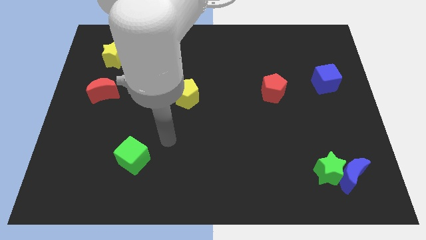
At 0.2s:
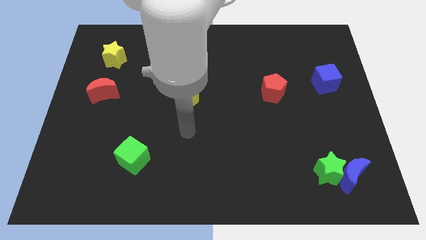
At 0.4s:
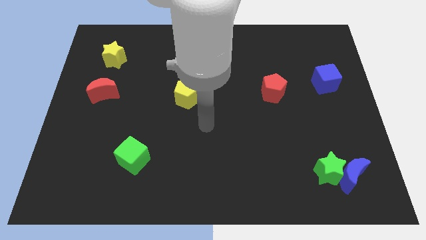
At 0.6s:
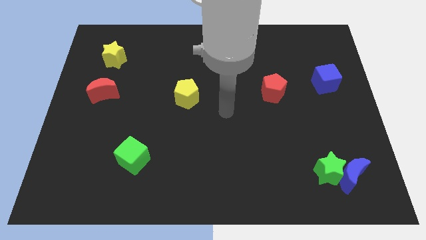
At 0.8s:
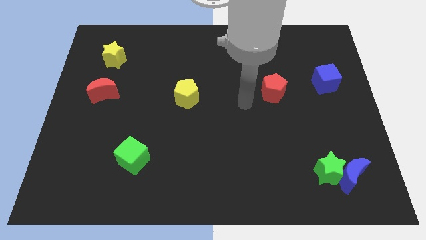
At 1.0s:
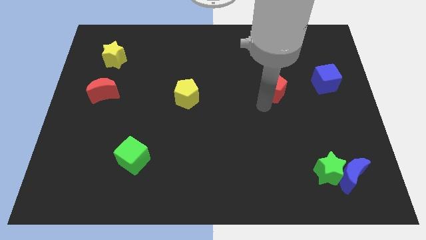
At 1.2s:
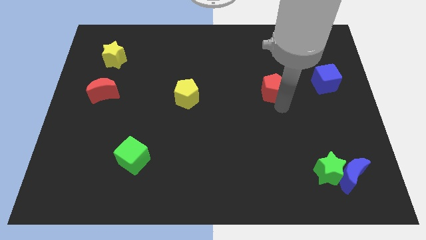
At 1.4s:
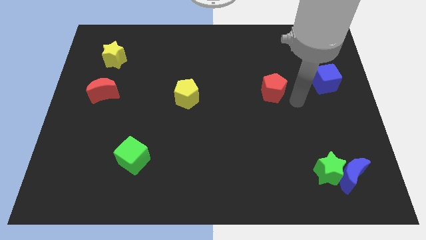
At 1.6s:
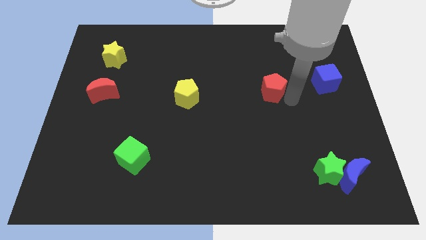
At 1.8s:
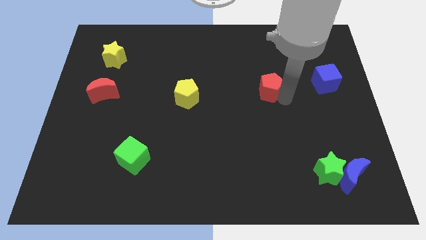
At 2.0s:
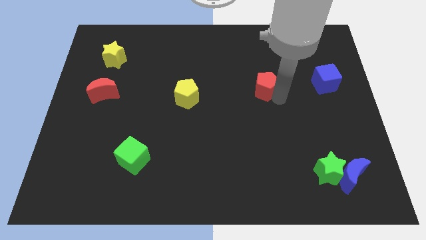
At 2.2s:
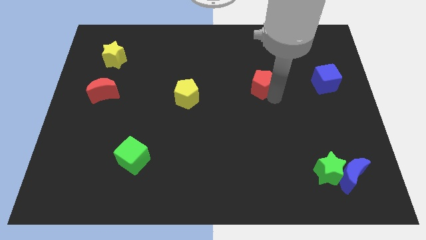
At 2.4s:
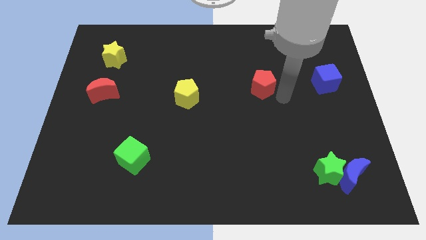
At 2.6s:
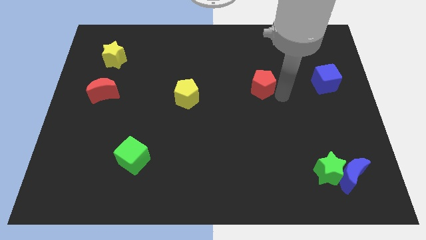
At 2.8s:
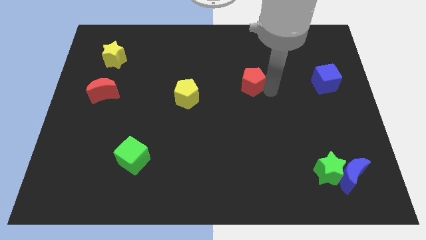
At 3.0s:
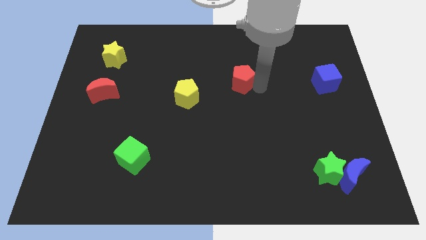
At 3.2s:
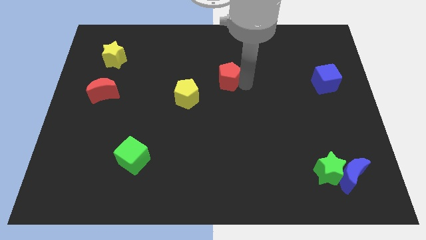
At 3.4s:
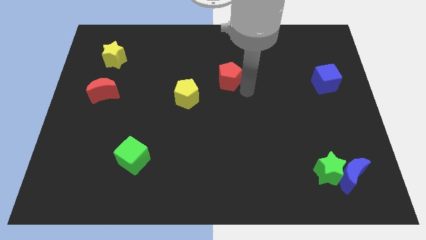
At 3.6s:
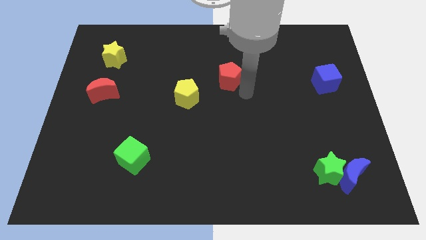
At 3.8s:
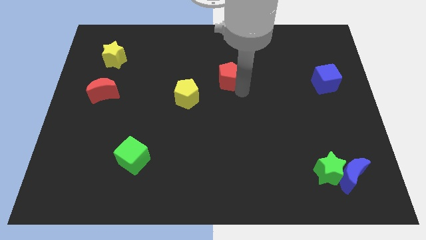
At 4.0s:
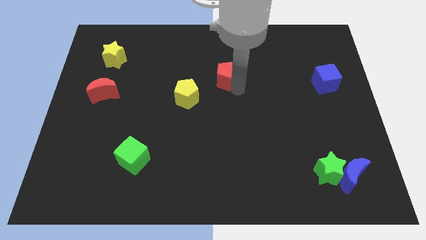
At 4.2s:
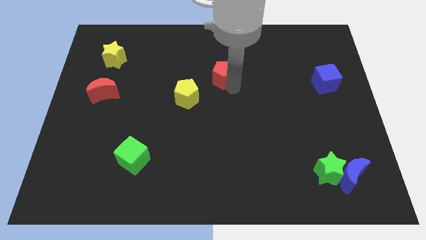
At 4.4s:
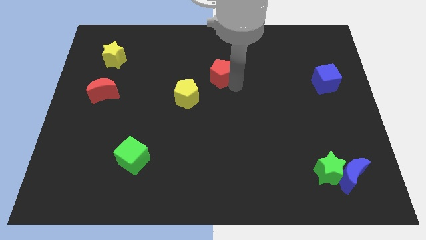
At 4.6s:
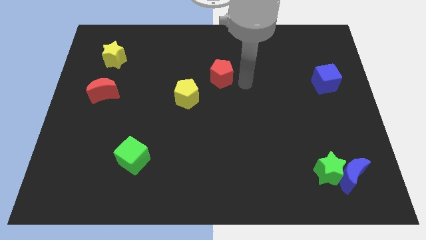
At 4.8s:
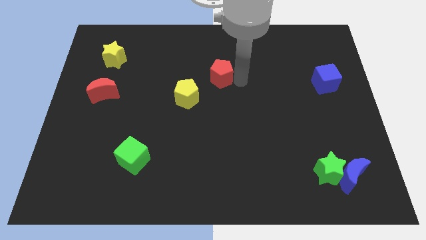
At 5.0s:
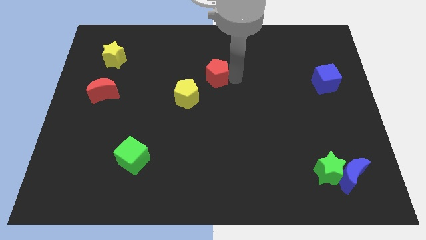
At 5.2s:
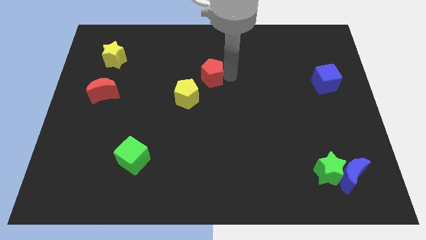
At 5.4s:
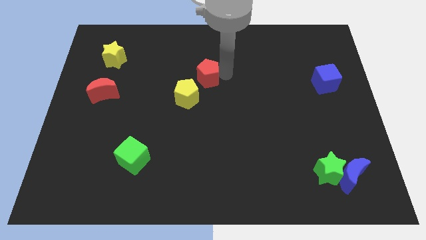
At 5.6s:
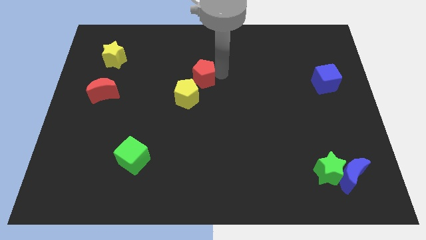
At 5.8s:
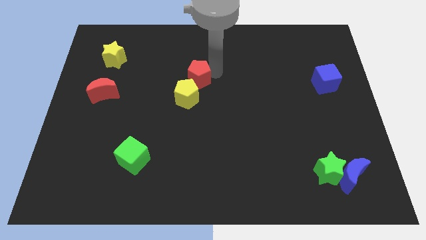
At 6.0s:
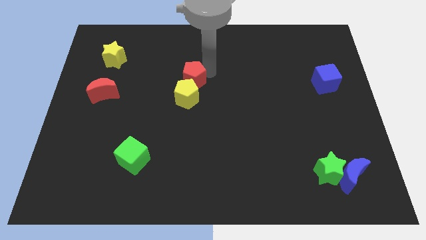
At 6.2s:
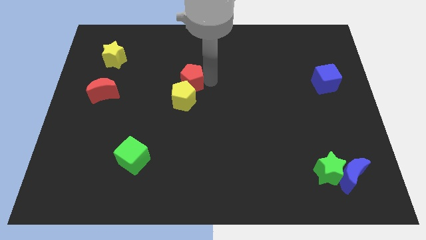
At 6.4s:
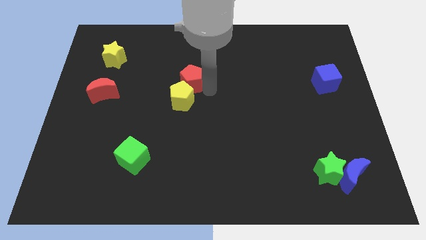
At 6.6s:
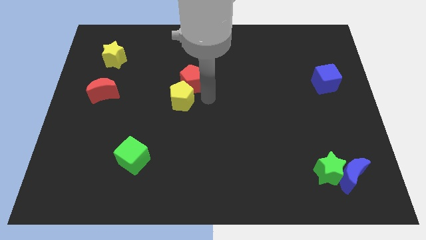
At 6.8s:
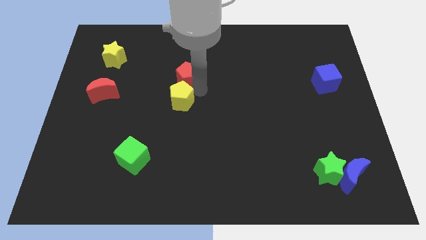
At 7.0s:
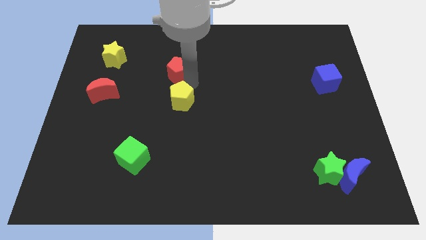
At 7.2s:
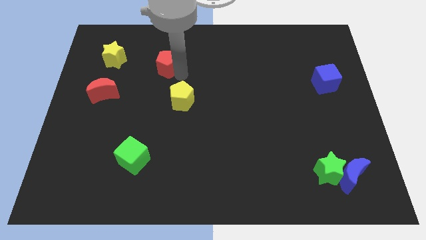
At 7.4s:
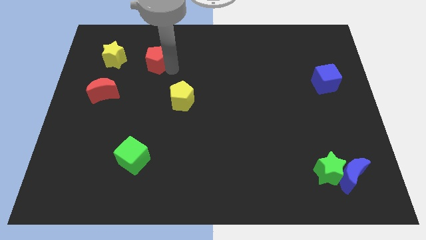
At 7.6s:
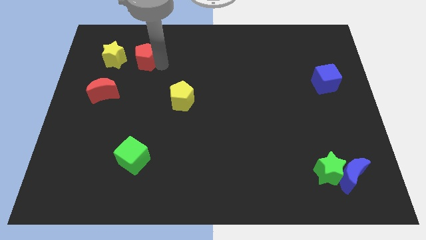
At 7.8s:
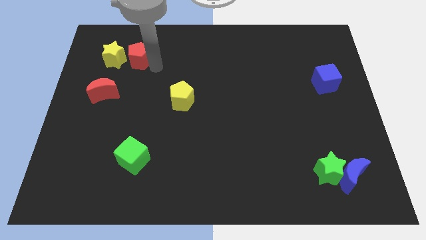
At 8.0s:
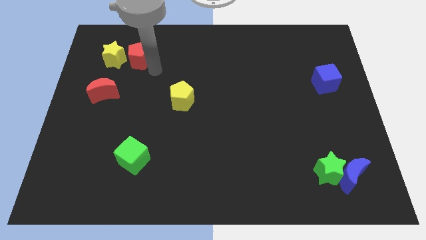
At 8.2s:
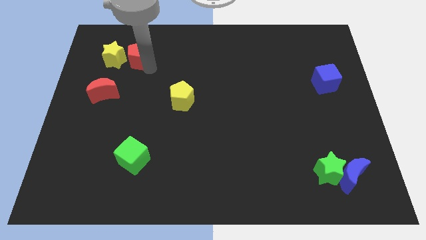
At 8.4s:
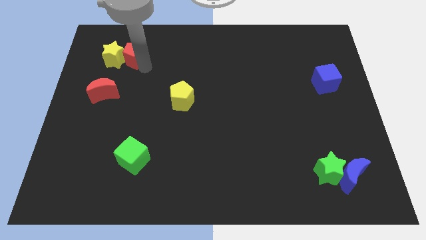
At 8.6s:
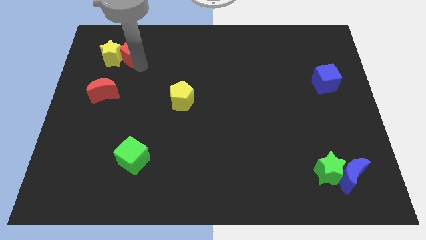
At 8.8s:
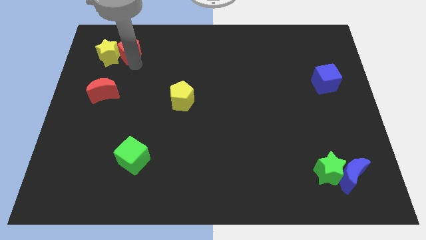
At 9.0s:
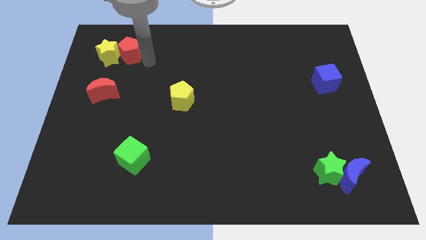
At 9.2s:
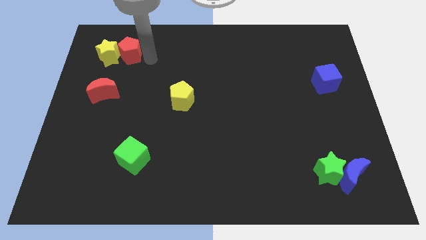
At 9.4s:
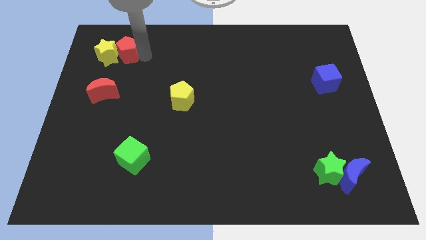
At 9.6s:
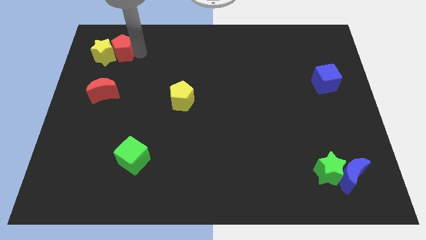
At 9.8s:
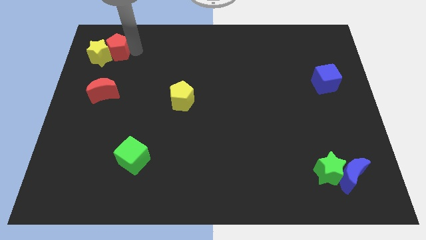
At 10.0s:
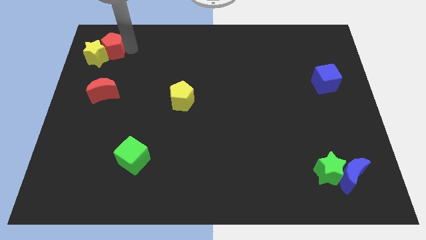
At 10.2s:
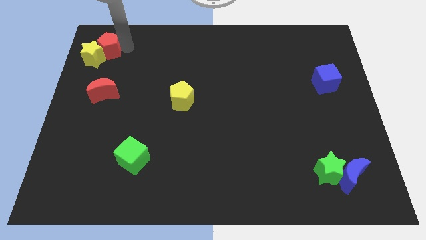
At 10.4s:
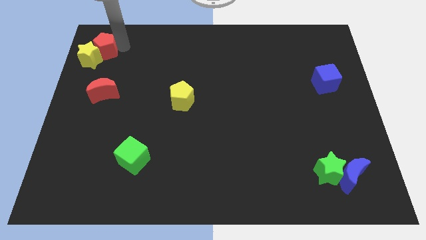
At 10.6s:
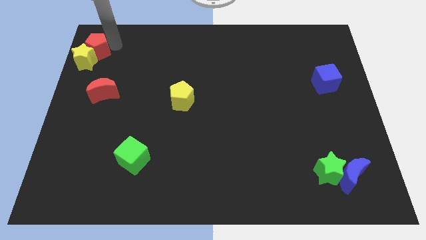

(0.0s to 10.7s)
put the red pentagon to the top left corner

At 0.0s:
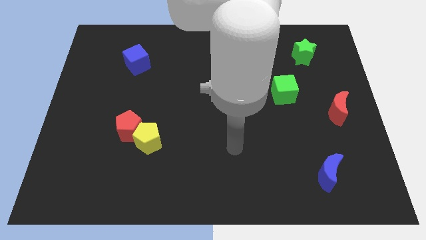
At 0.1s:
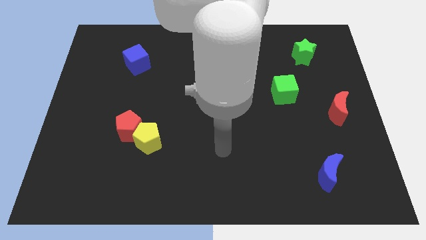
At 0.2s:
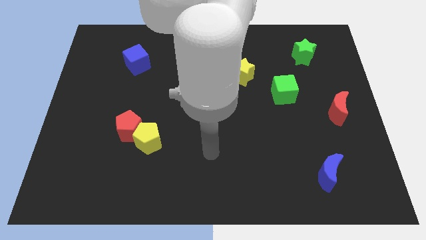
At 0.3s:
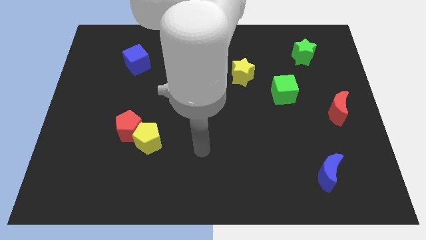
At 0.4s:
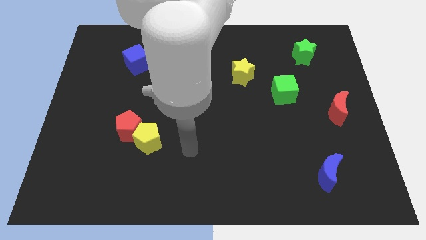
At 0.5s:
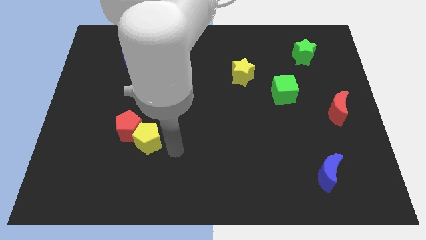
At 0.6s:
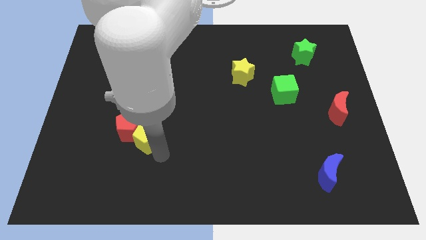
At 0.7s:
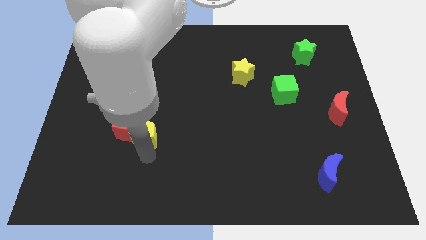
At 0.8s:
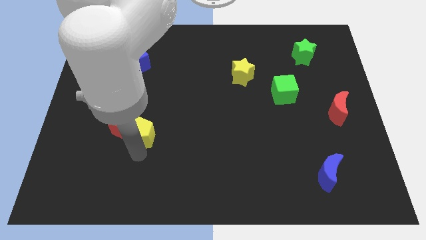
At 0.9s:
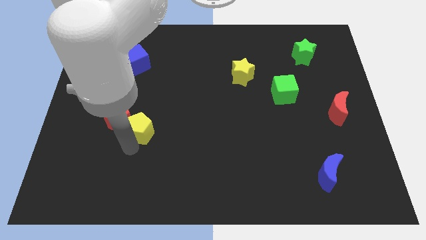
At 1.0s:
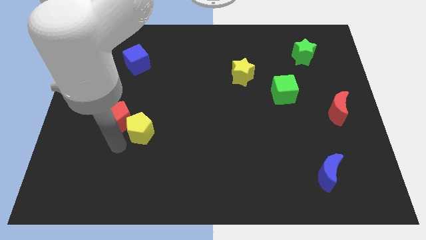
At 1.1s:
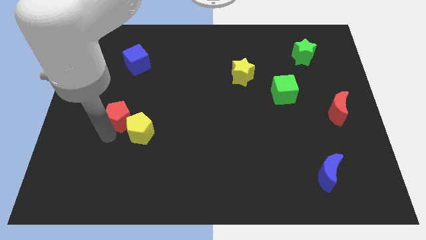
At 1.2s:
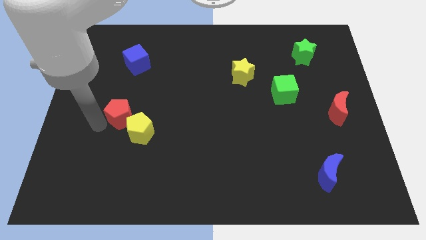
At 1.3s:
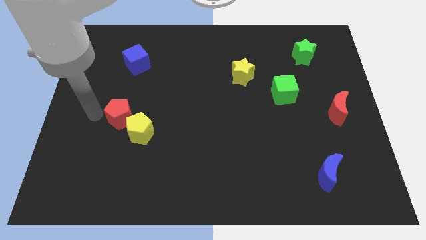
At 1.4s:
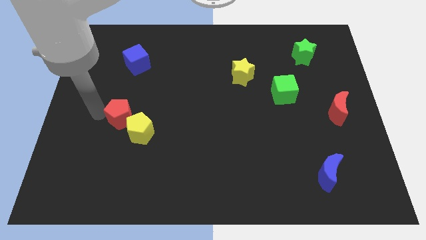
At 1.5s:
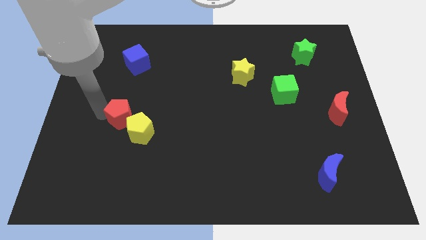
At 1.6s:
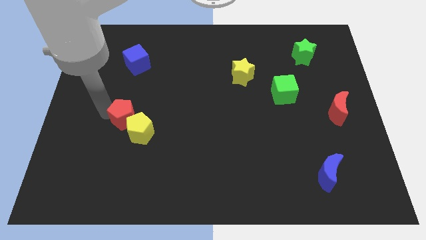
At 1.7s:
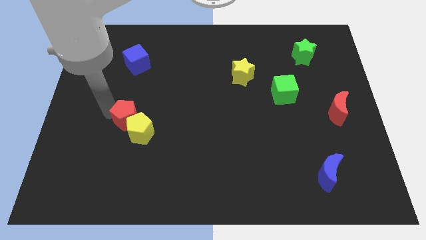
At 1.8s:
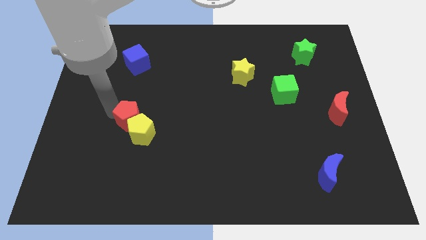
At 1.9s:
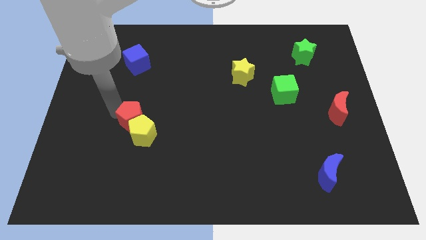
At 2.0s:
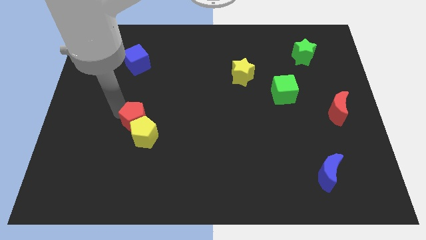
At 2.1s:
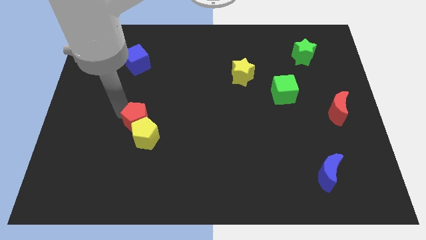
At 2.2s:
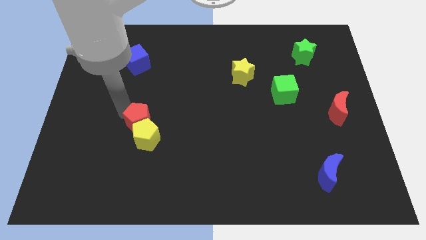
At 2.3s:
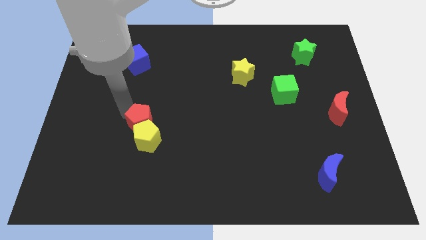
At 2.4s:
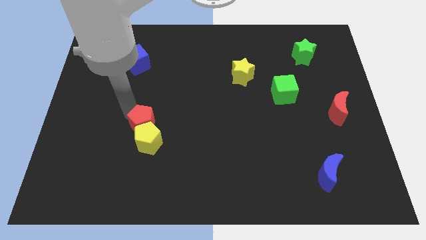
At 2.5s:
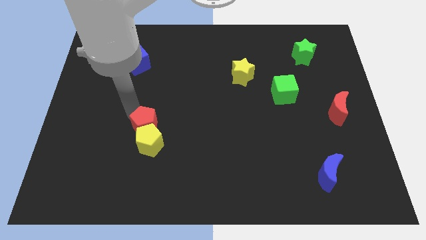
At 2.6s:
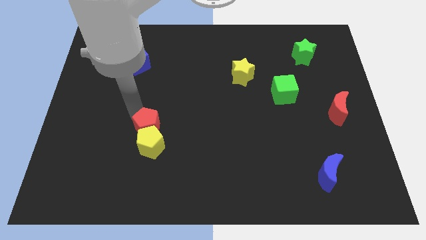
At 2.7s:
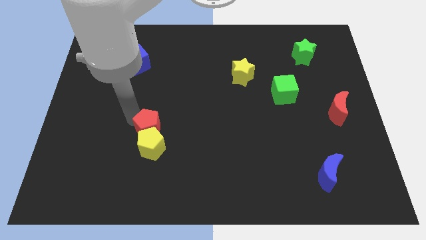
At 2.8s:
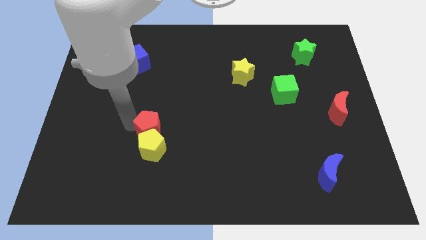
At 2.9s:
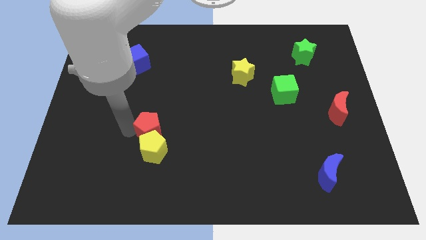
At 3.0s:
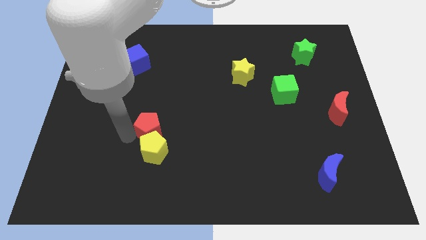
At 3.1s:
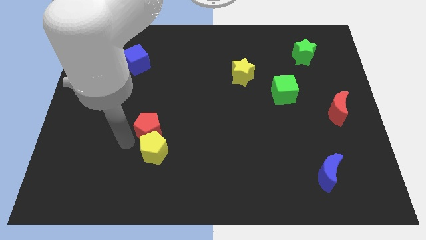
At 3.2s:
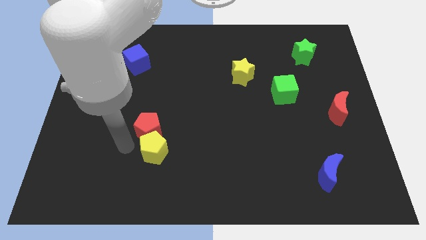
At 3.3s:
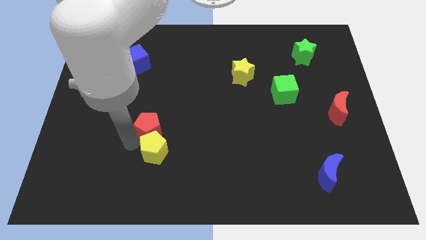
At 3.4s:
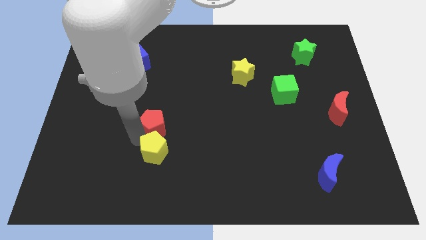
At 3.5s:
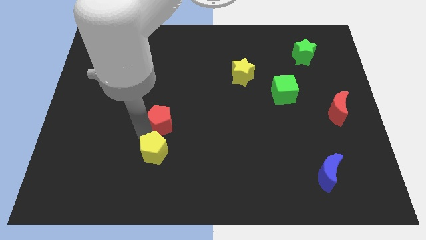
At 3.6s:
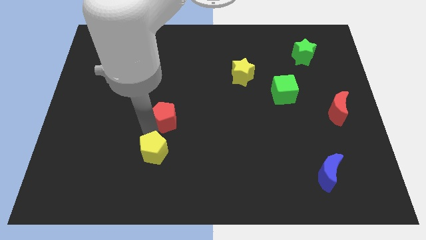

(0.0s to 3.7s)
move the red pentagon to the middle of the board
